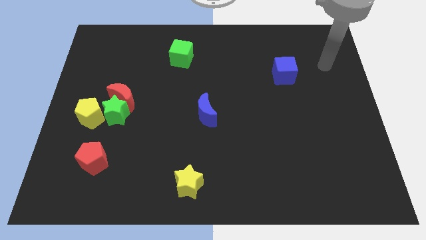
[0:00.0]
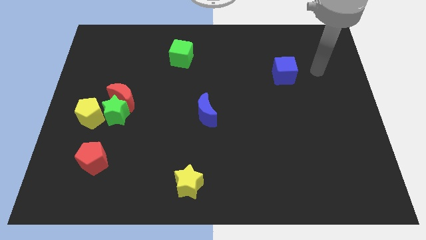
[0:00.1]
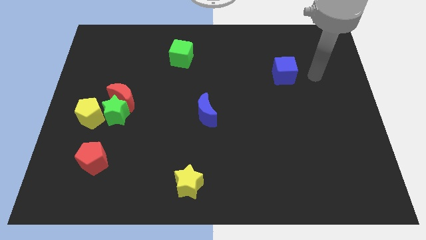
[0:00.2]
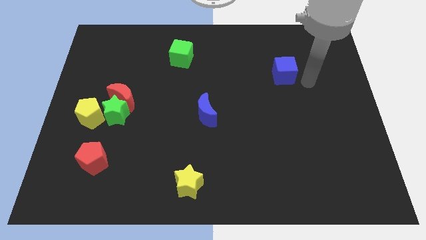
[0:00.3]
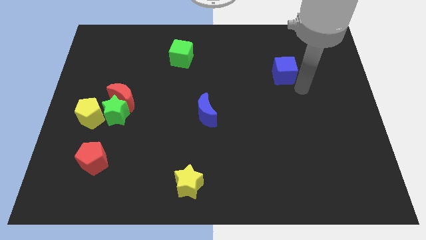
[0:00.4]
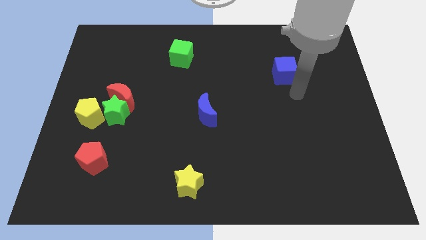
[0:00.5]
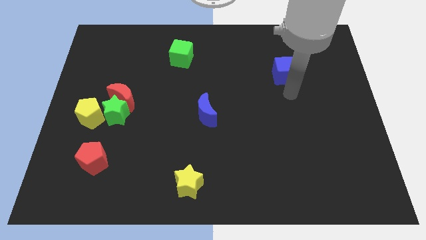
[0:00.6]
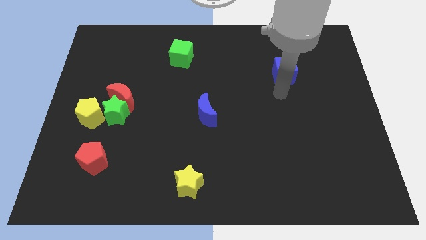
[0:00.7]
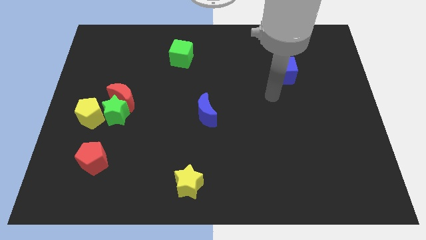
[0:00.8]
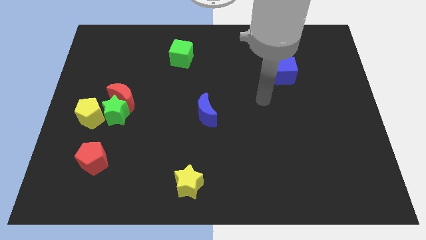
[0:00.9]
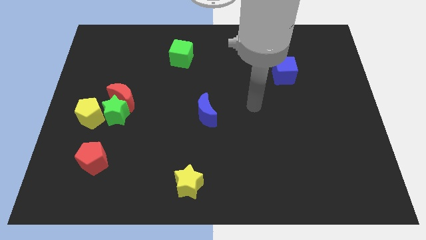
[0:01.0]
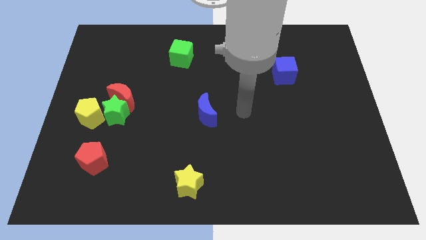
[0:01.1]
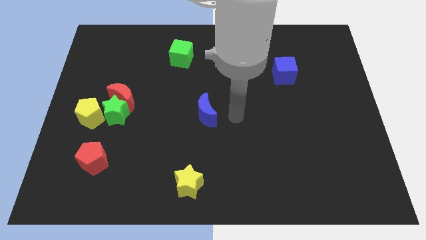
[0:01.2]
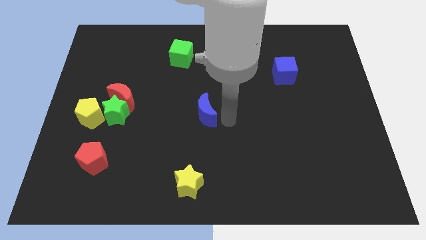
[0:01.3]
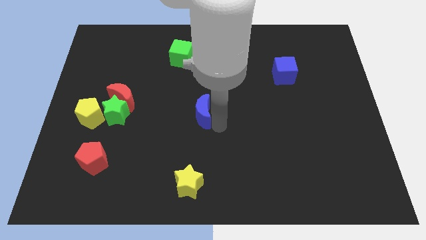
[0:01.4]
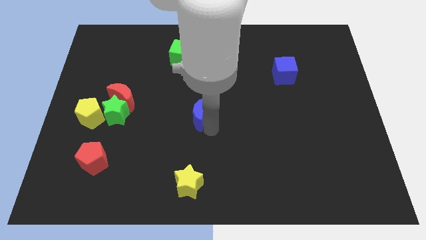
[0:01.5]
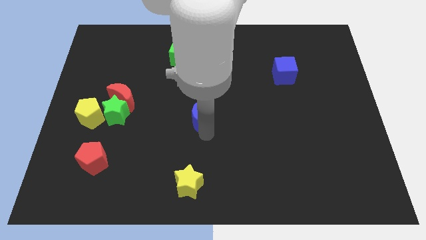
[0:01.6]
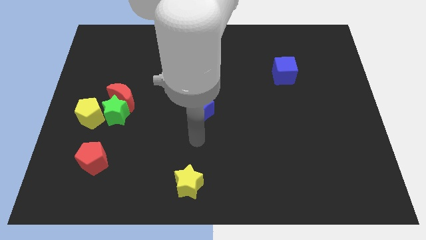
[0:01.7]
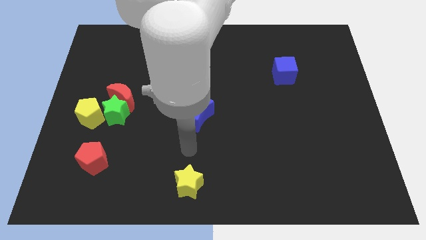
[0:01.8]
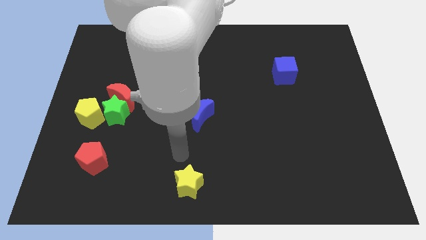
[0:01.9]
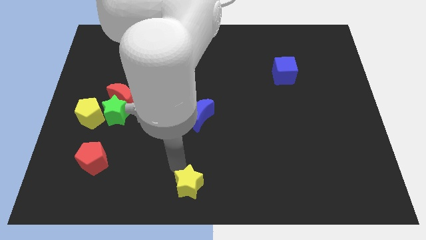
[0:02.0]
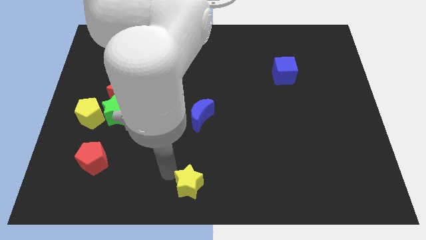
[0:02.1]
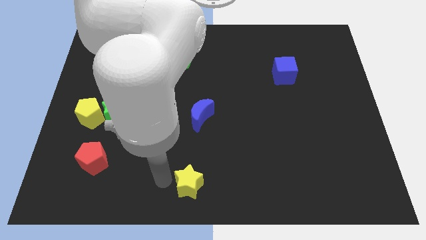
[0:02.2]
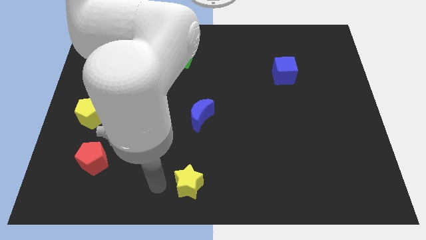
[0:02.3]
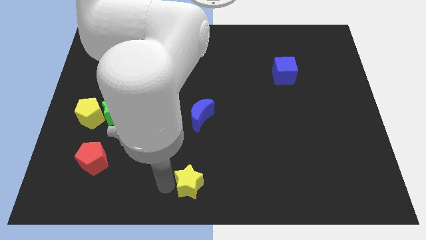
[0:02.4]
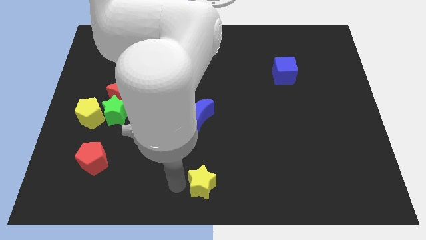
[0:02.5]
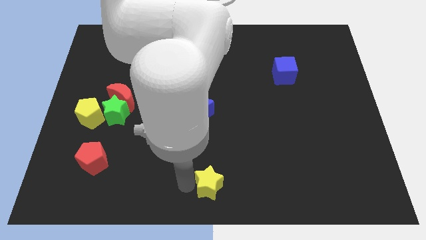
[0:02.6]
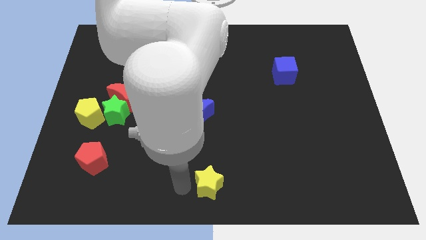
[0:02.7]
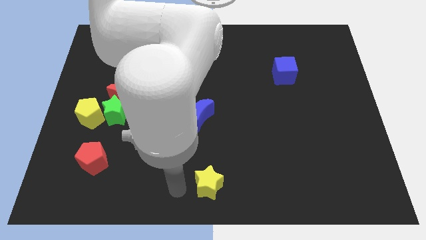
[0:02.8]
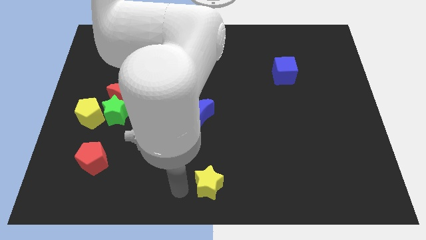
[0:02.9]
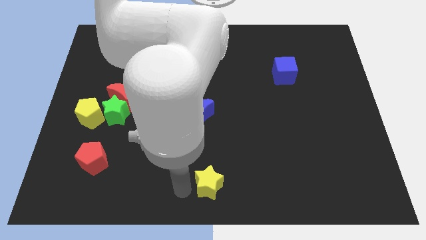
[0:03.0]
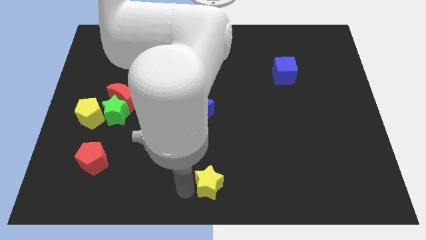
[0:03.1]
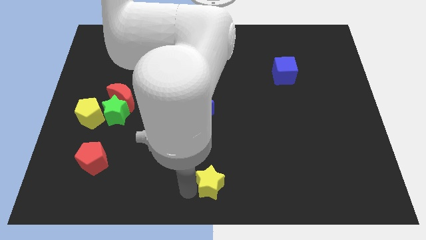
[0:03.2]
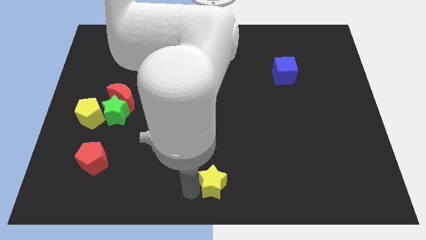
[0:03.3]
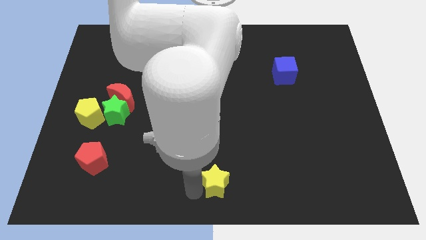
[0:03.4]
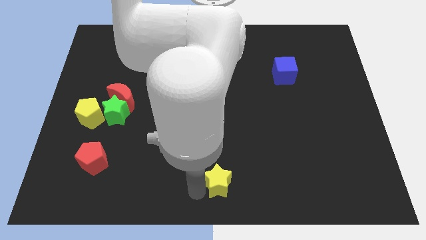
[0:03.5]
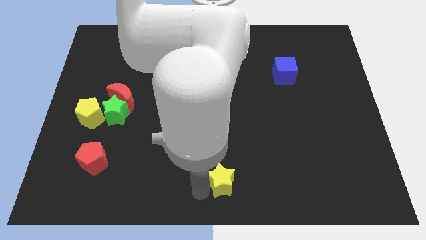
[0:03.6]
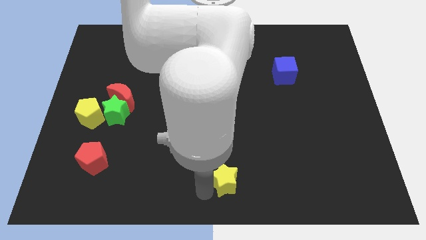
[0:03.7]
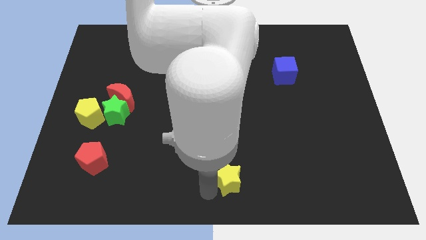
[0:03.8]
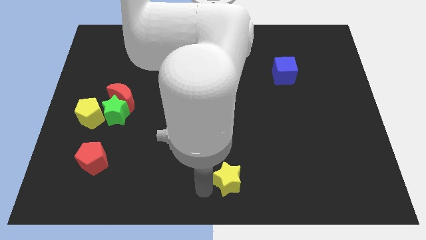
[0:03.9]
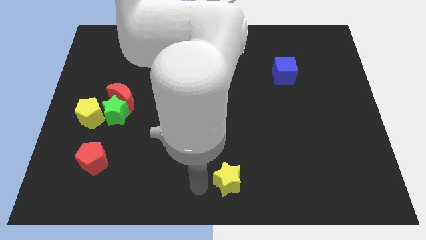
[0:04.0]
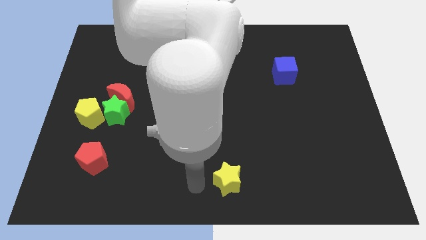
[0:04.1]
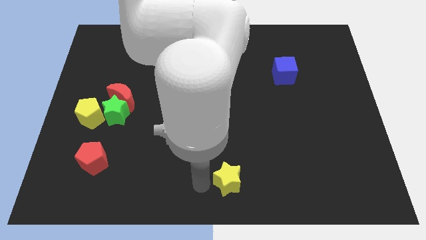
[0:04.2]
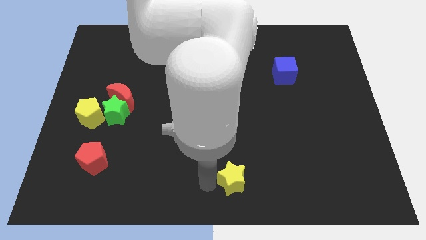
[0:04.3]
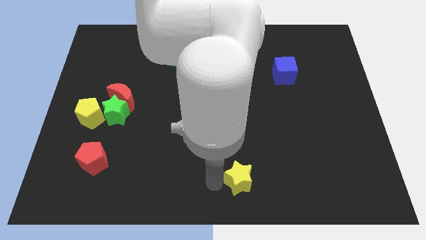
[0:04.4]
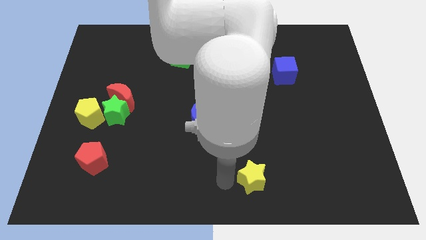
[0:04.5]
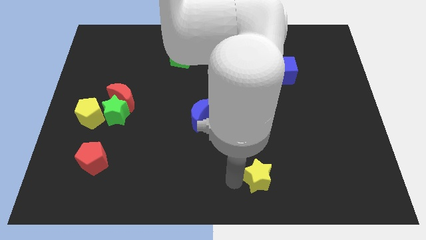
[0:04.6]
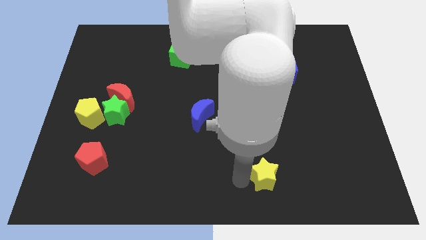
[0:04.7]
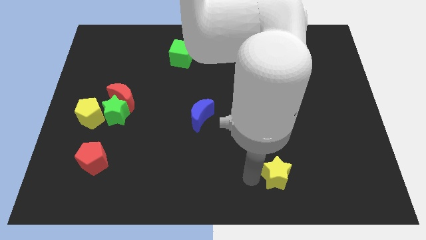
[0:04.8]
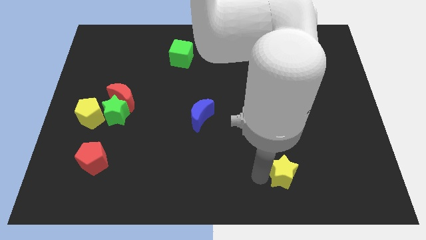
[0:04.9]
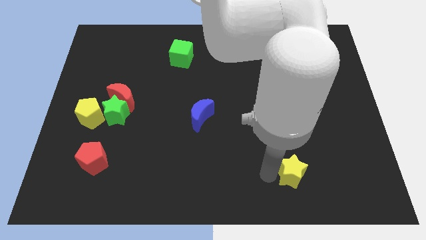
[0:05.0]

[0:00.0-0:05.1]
slide the yellow star to the right

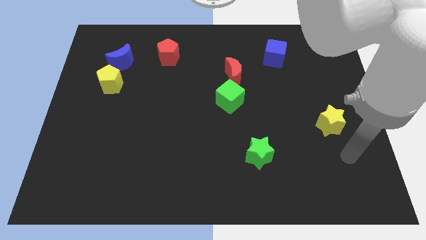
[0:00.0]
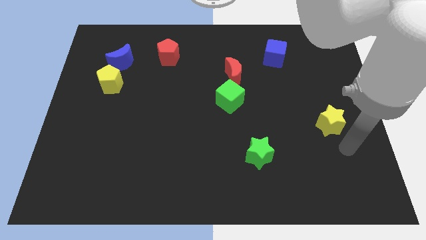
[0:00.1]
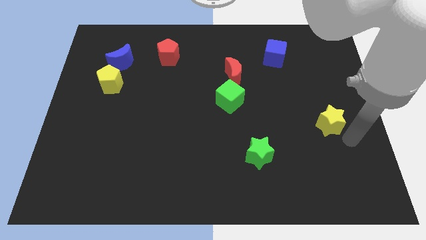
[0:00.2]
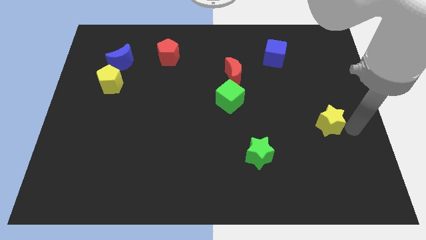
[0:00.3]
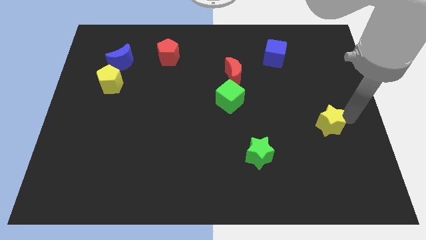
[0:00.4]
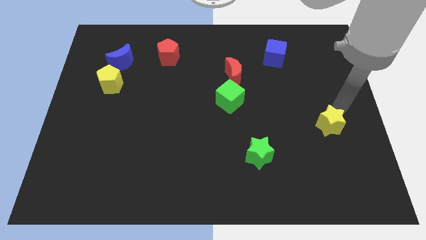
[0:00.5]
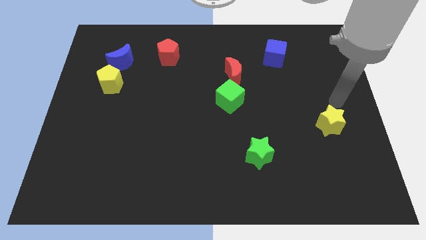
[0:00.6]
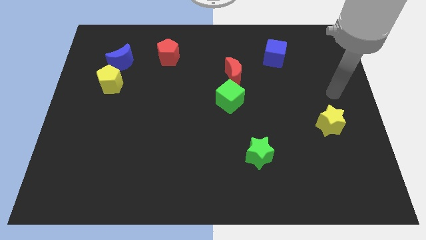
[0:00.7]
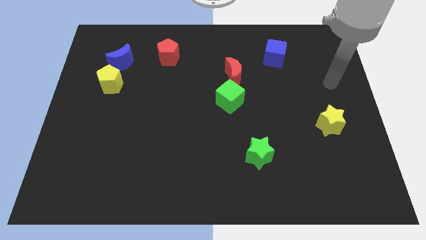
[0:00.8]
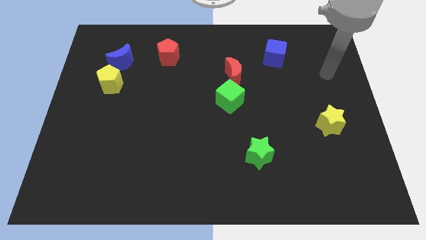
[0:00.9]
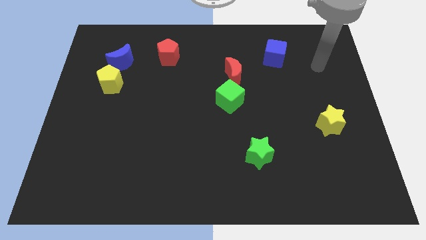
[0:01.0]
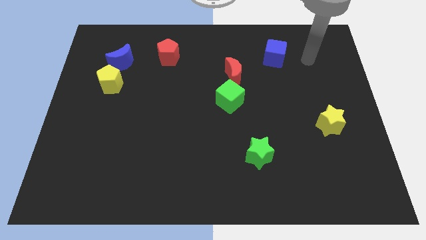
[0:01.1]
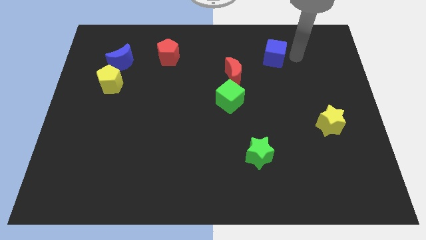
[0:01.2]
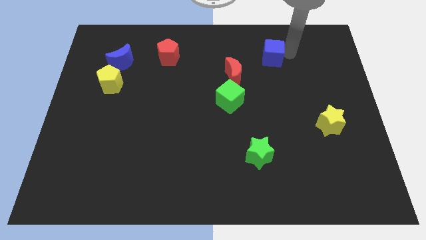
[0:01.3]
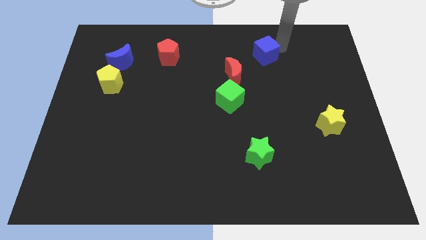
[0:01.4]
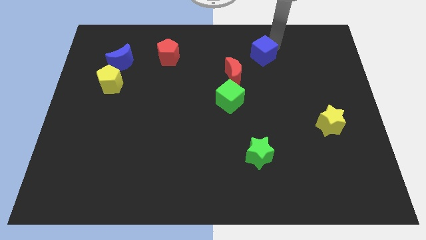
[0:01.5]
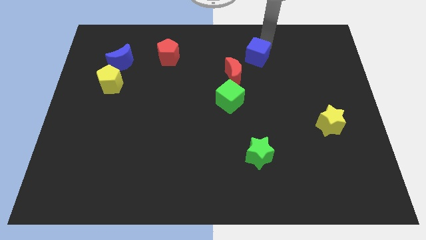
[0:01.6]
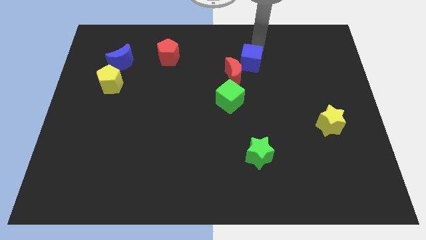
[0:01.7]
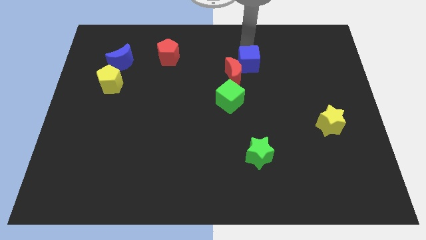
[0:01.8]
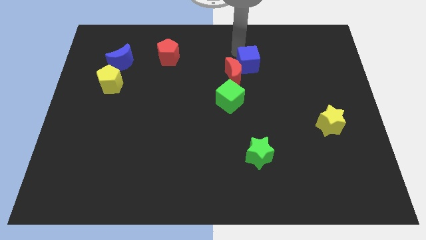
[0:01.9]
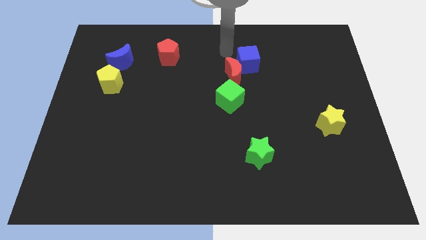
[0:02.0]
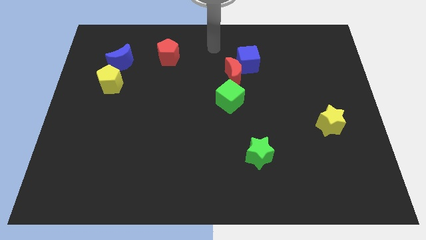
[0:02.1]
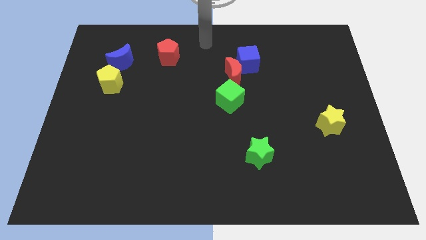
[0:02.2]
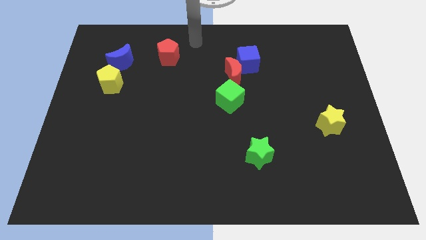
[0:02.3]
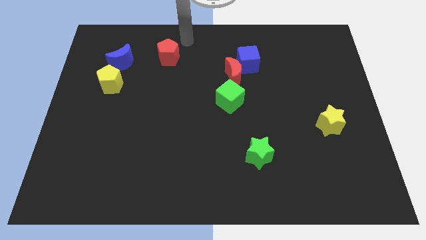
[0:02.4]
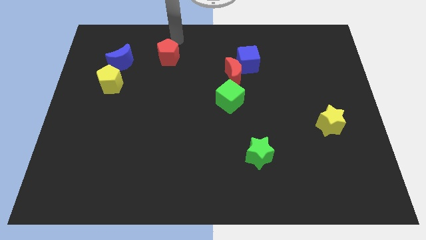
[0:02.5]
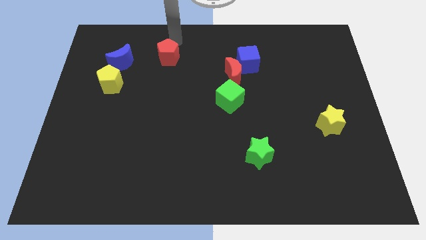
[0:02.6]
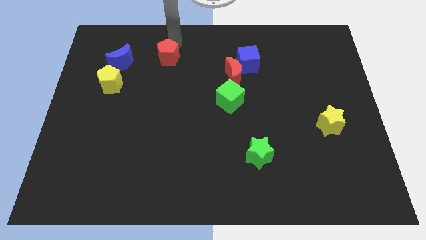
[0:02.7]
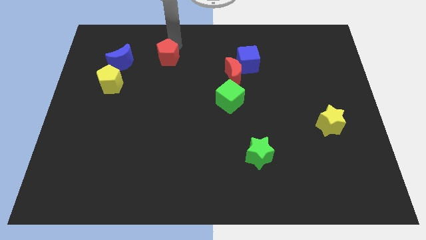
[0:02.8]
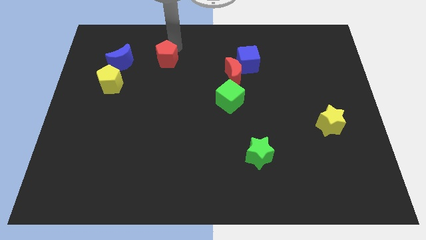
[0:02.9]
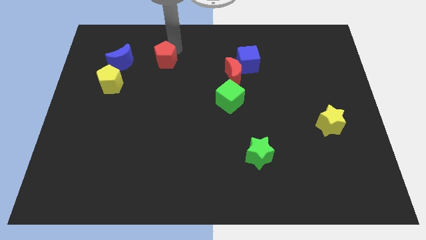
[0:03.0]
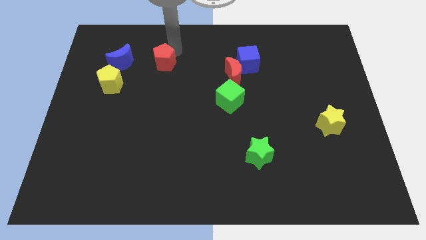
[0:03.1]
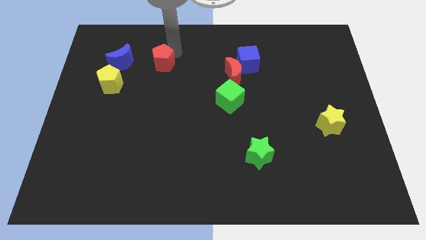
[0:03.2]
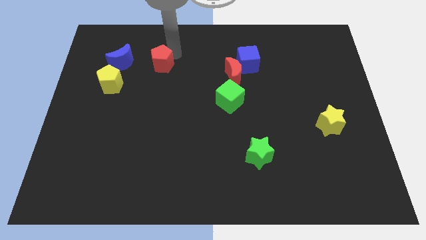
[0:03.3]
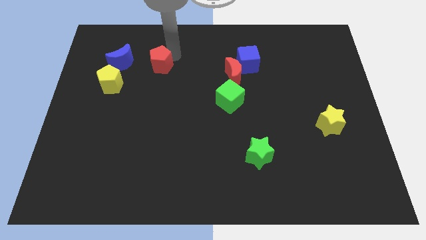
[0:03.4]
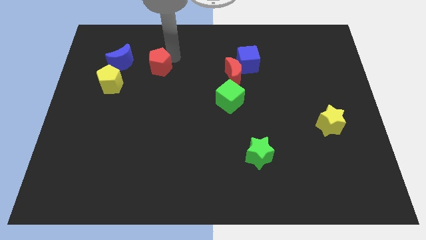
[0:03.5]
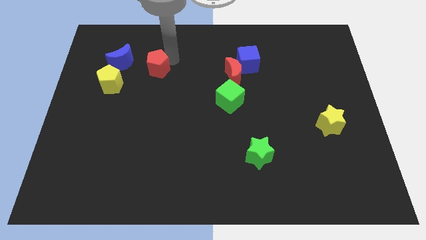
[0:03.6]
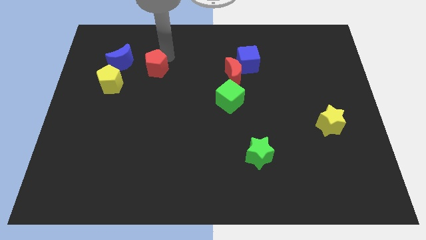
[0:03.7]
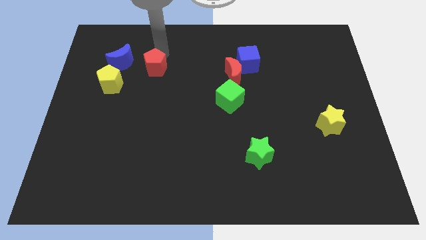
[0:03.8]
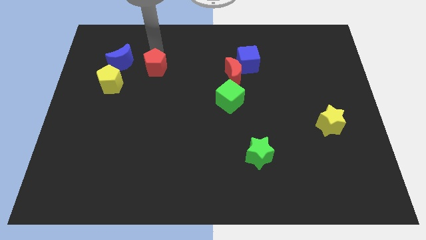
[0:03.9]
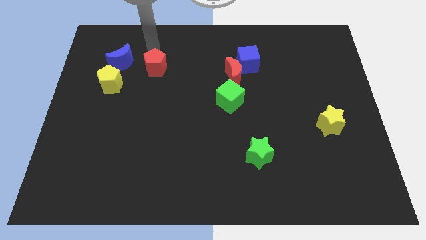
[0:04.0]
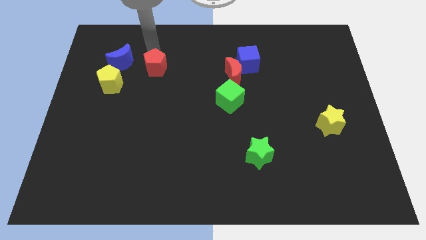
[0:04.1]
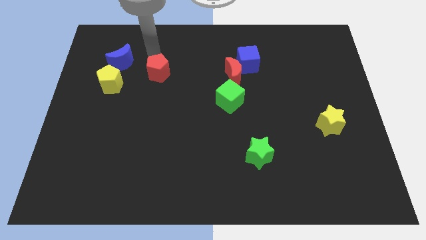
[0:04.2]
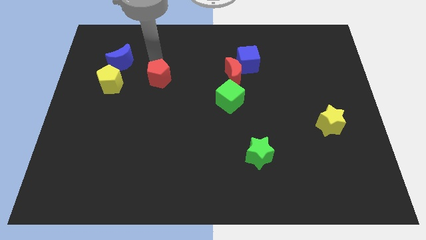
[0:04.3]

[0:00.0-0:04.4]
push the red pentagon downwards a bit
